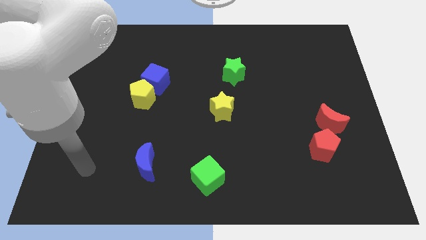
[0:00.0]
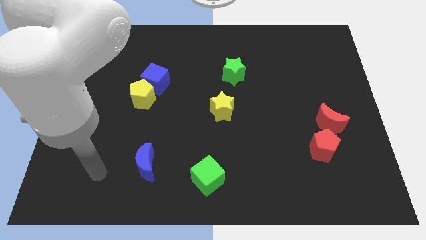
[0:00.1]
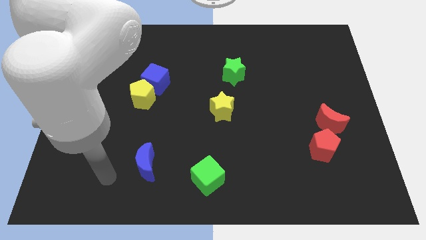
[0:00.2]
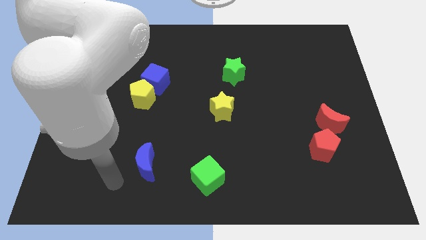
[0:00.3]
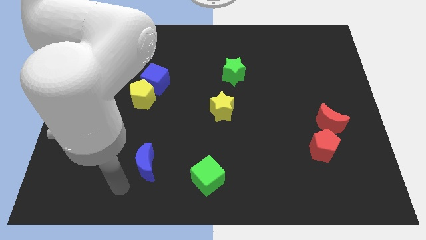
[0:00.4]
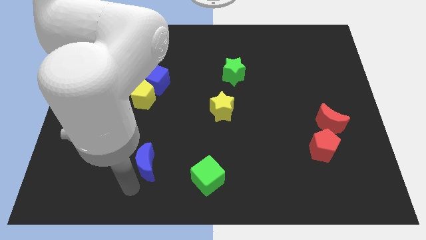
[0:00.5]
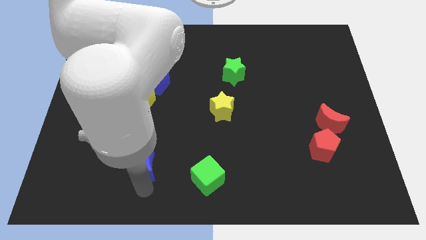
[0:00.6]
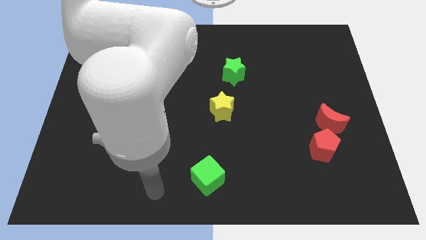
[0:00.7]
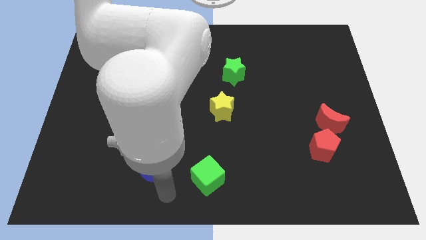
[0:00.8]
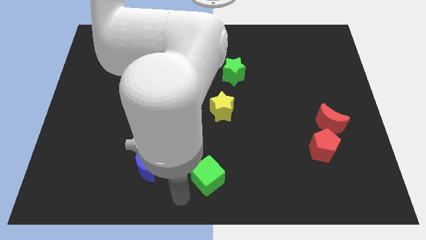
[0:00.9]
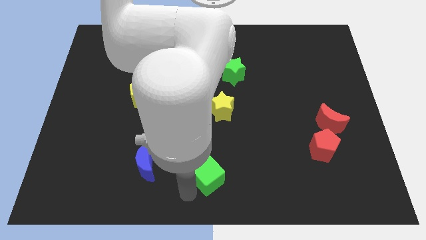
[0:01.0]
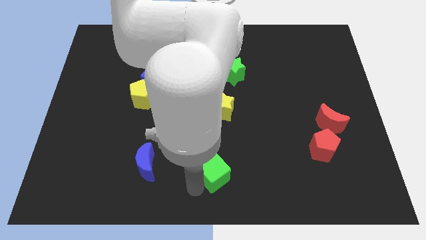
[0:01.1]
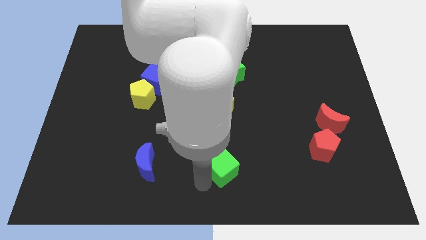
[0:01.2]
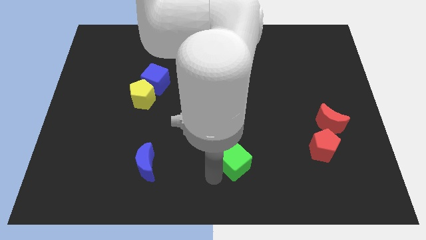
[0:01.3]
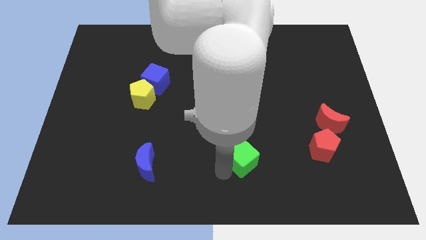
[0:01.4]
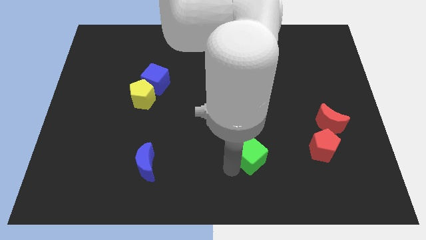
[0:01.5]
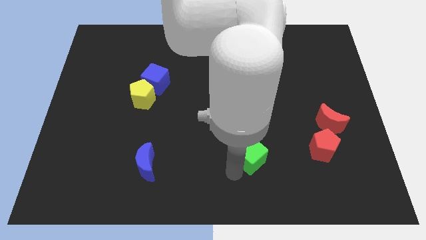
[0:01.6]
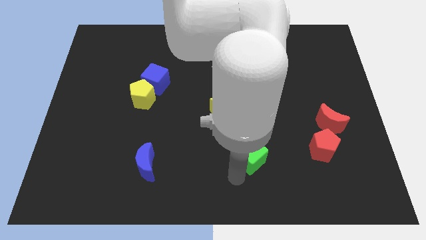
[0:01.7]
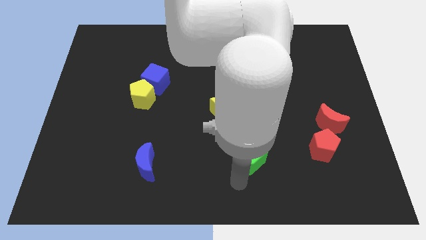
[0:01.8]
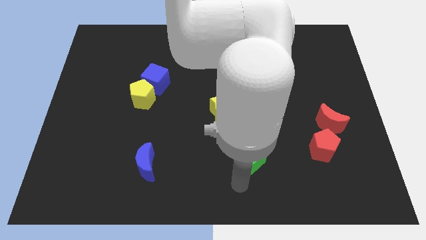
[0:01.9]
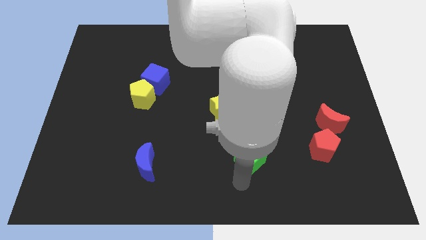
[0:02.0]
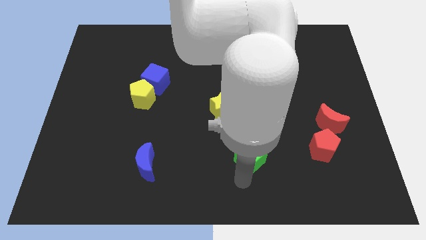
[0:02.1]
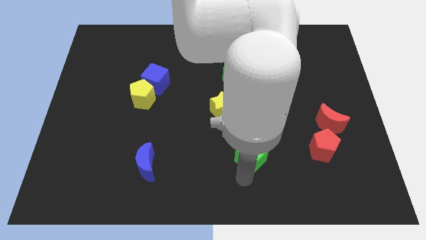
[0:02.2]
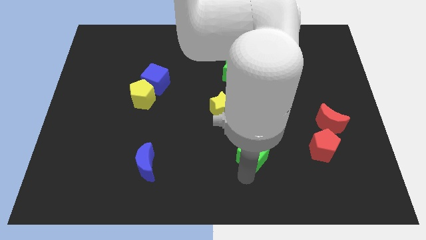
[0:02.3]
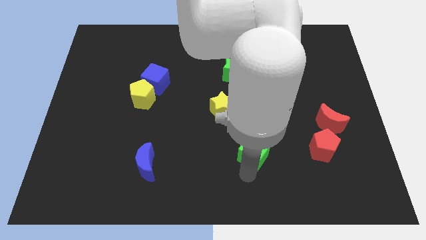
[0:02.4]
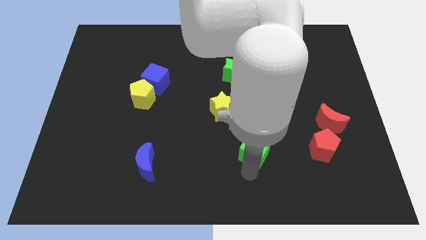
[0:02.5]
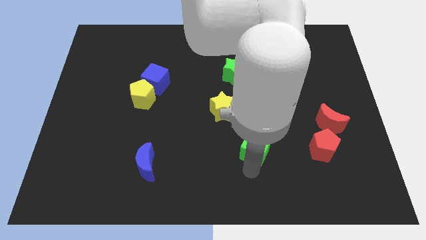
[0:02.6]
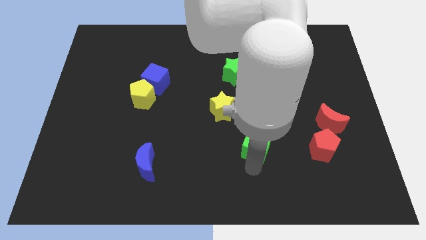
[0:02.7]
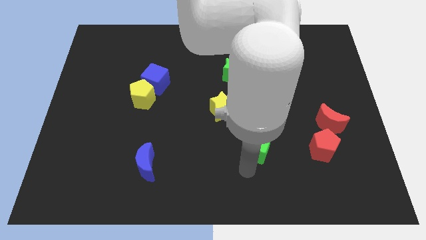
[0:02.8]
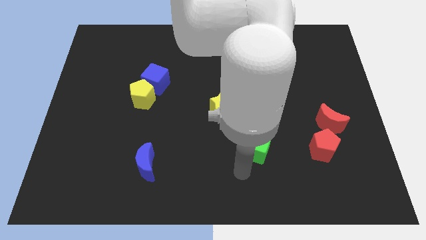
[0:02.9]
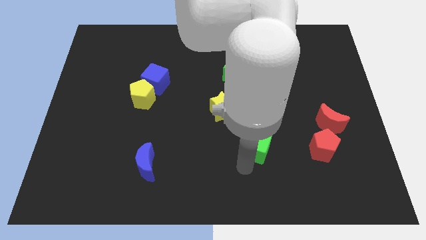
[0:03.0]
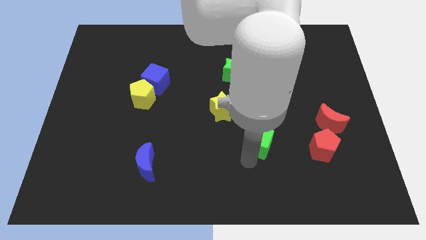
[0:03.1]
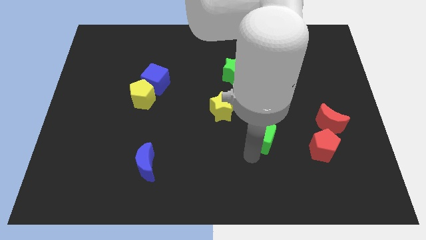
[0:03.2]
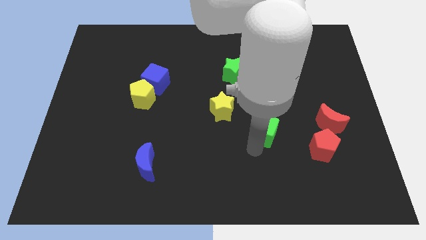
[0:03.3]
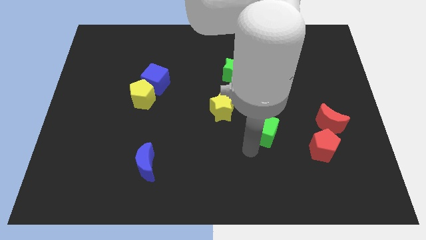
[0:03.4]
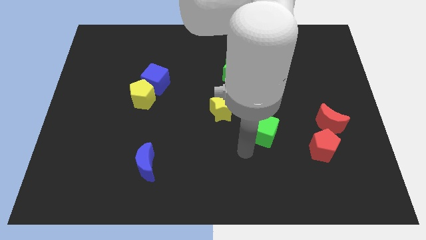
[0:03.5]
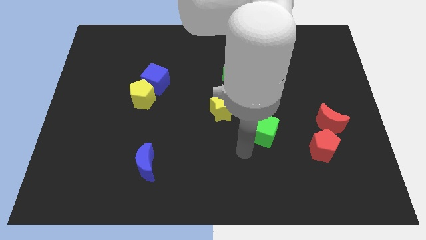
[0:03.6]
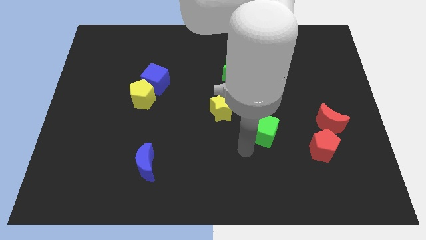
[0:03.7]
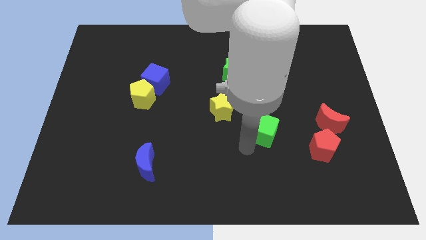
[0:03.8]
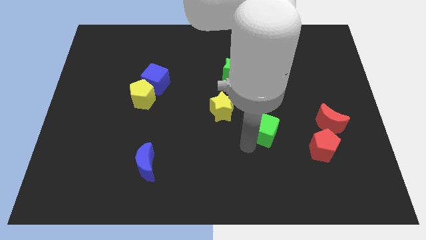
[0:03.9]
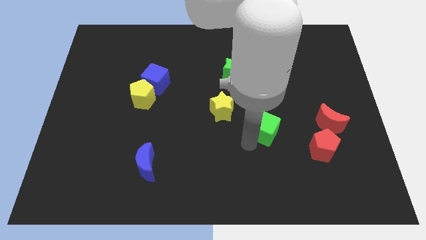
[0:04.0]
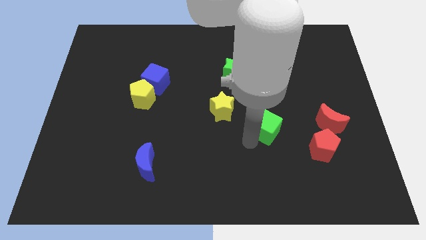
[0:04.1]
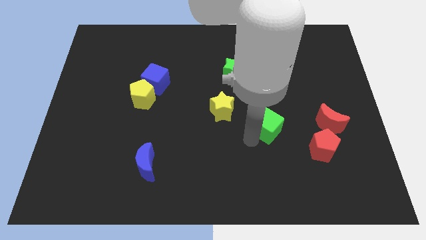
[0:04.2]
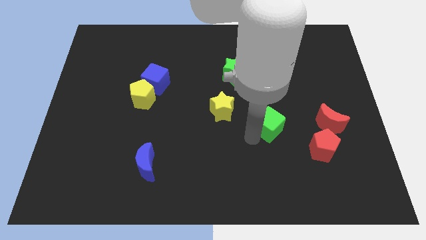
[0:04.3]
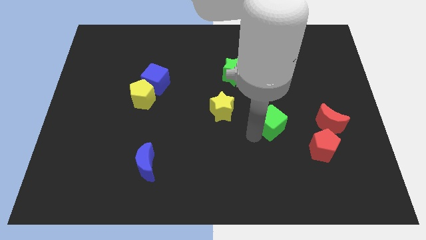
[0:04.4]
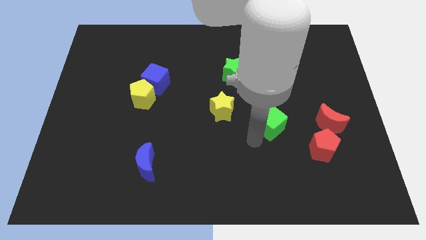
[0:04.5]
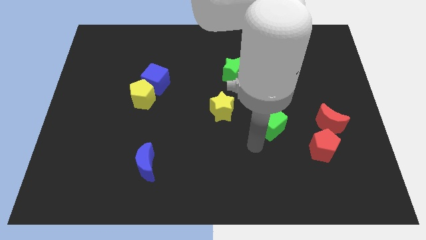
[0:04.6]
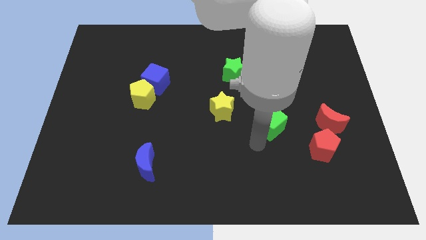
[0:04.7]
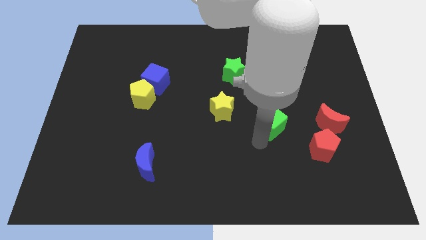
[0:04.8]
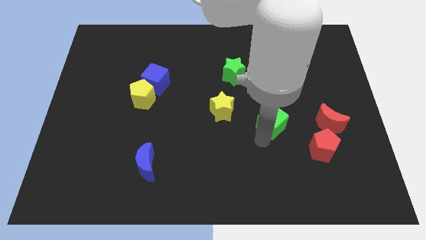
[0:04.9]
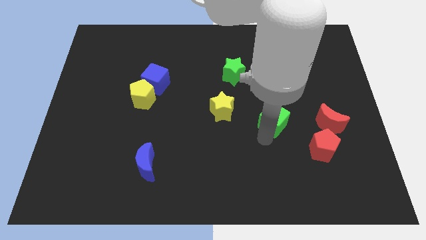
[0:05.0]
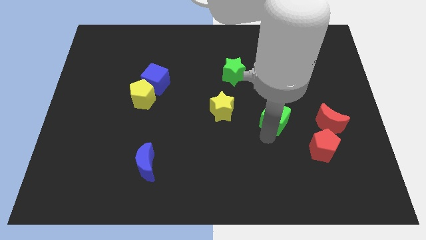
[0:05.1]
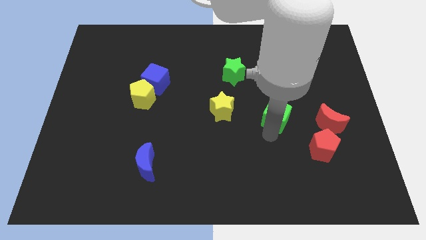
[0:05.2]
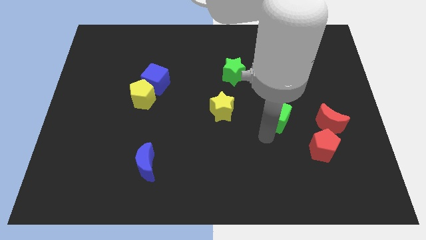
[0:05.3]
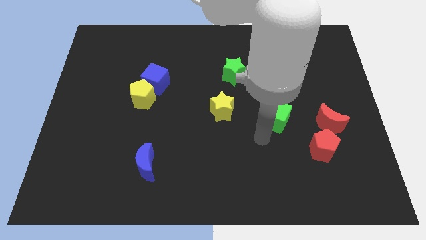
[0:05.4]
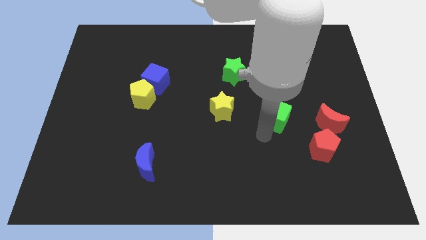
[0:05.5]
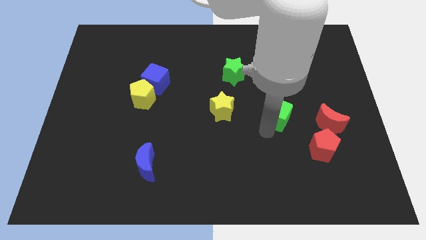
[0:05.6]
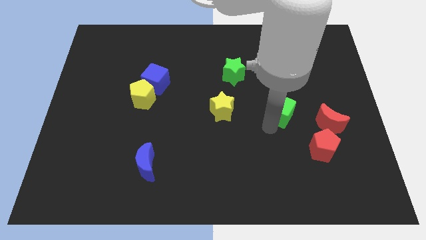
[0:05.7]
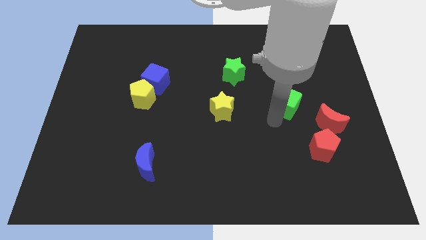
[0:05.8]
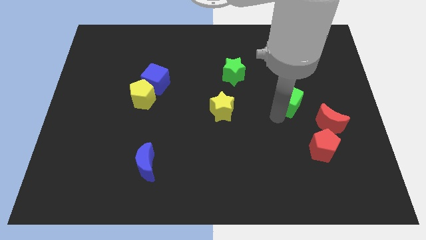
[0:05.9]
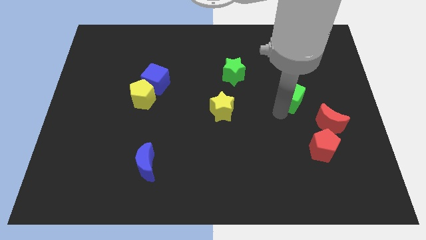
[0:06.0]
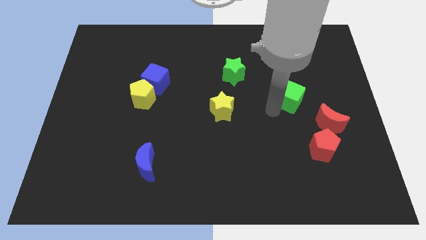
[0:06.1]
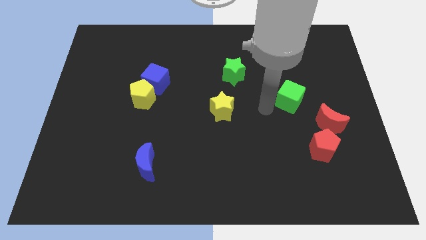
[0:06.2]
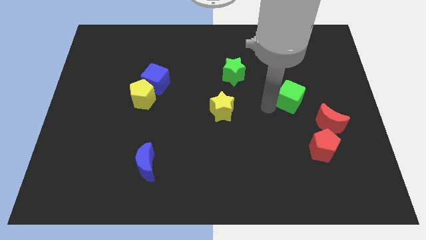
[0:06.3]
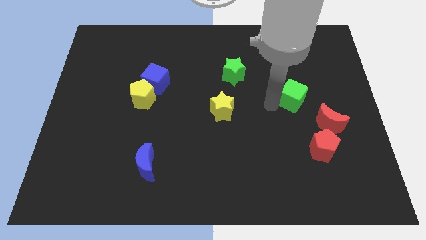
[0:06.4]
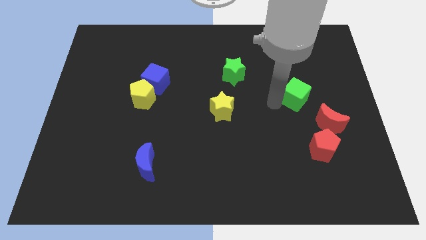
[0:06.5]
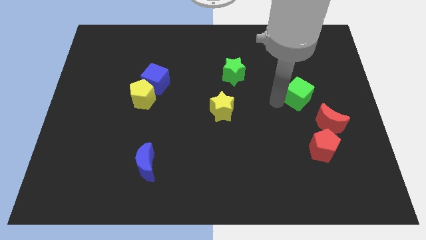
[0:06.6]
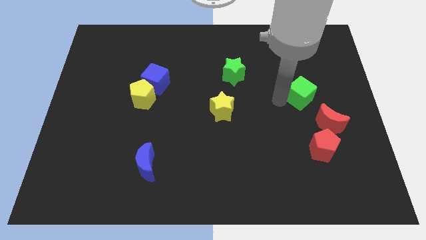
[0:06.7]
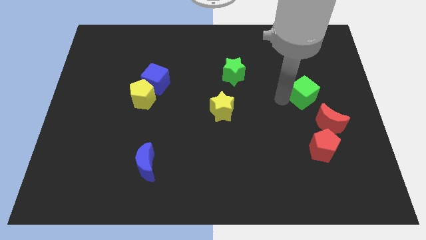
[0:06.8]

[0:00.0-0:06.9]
move the green cube above the red moon
